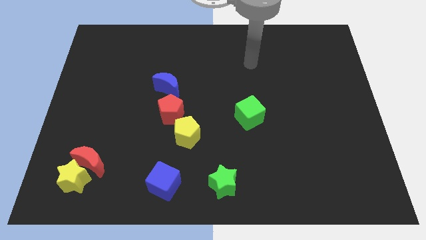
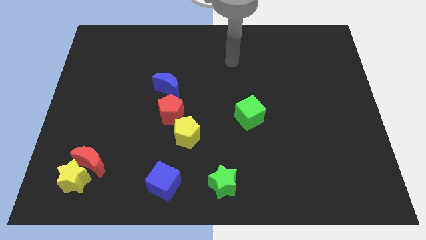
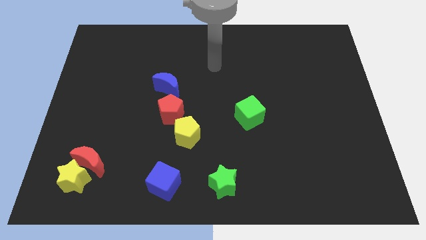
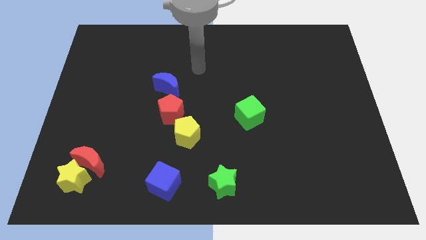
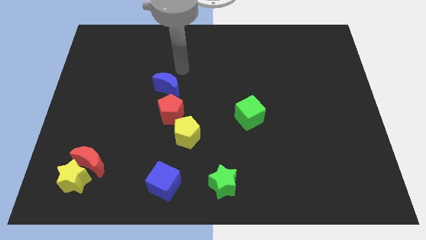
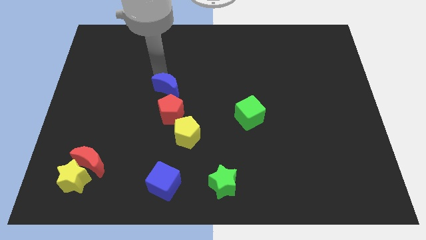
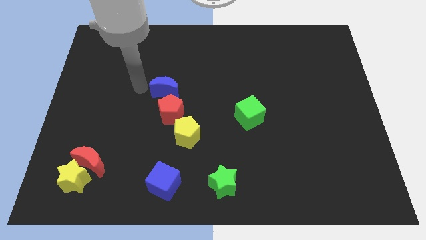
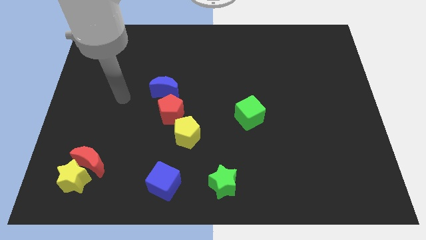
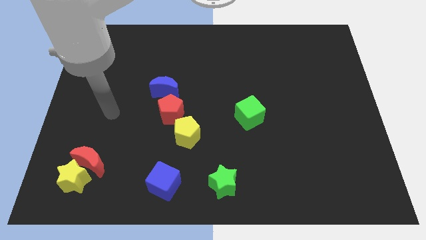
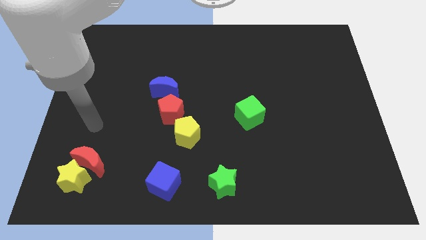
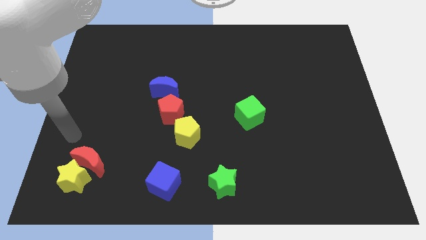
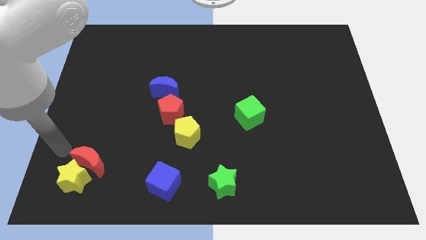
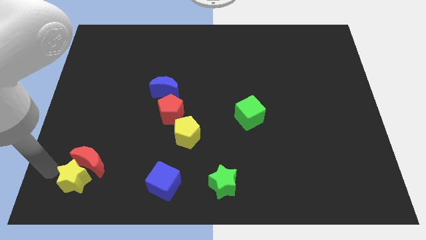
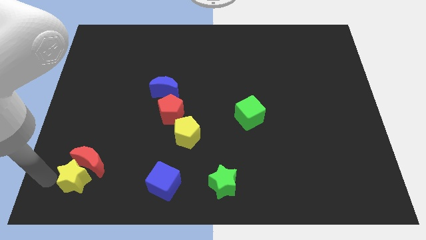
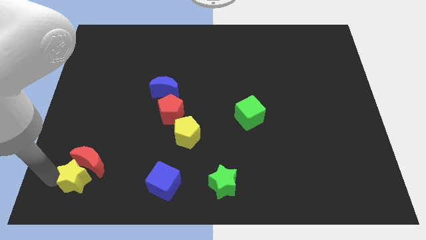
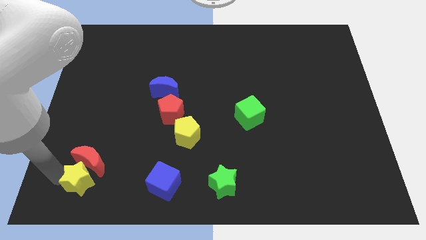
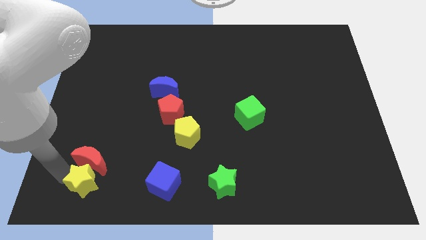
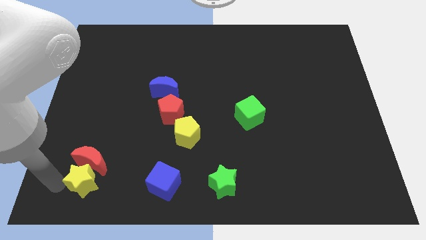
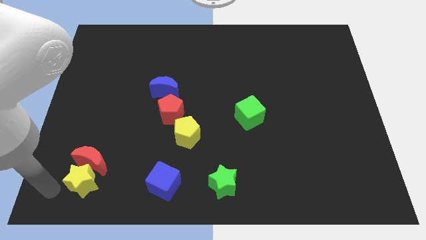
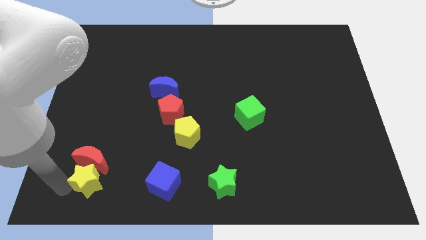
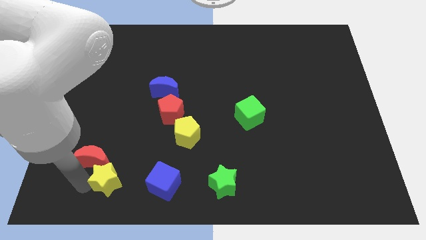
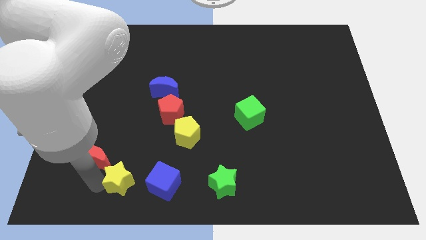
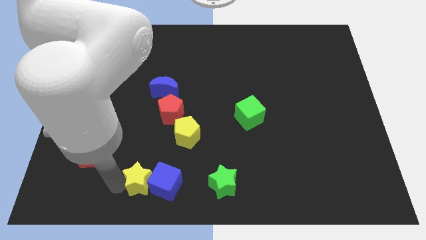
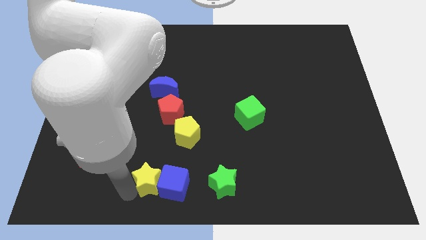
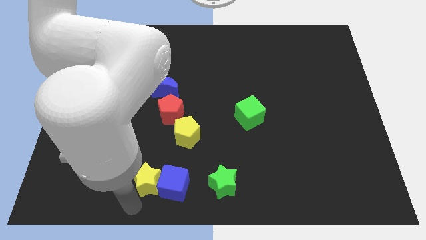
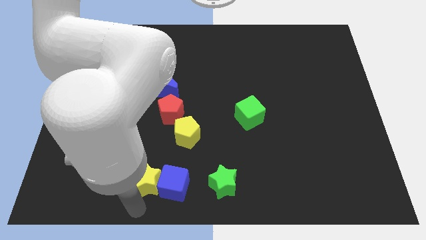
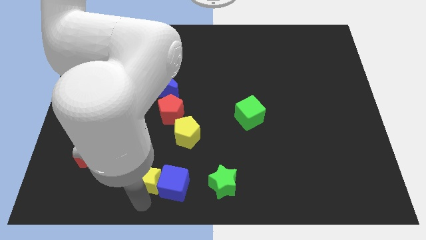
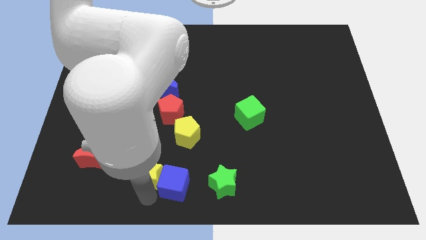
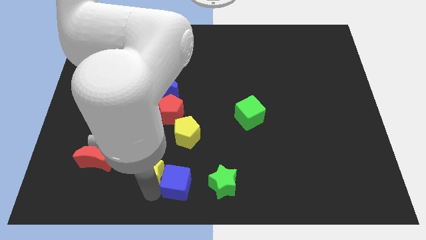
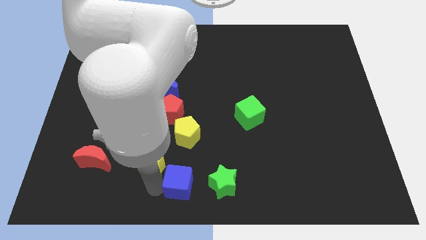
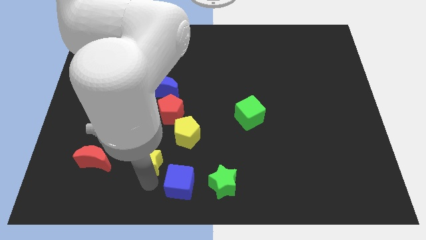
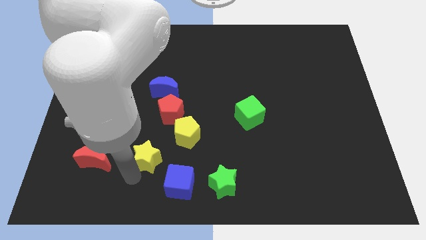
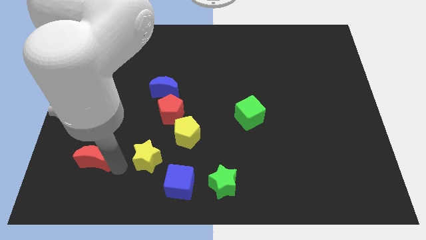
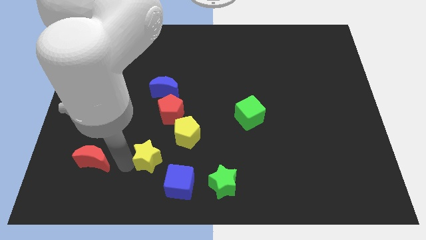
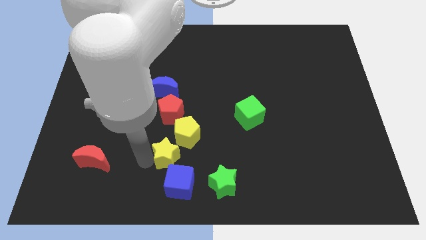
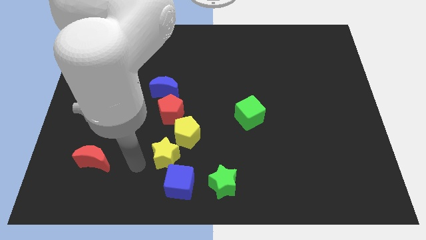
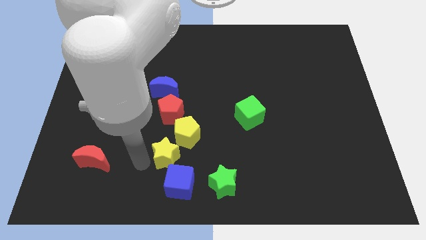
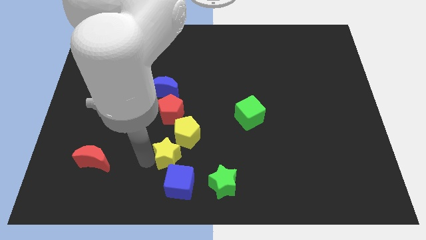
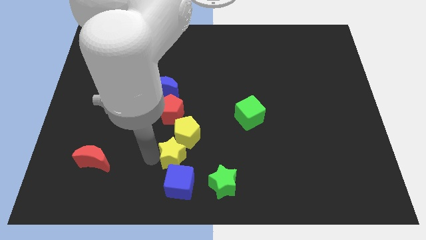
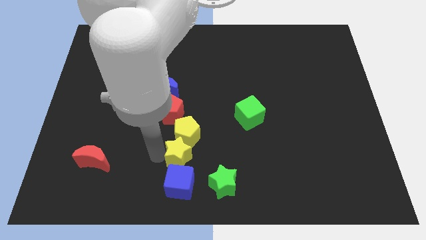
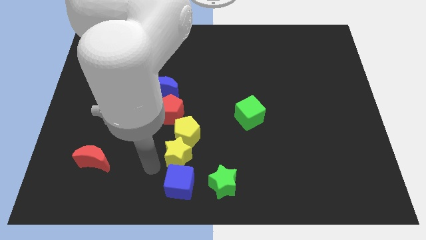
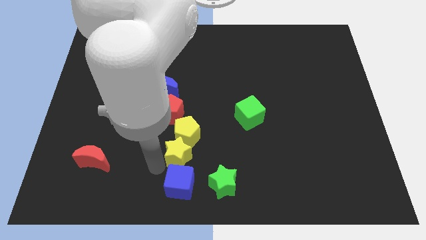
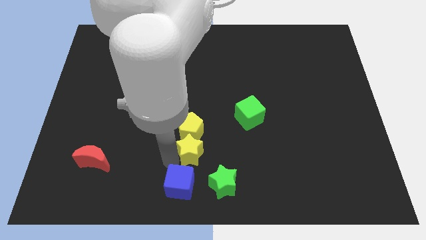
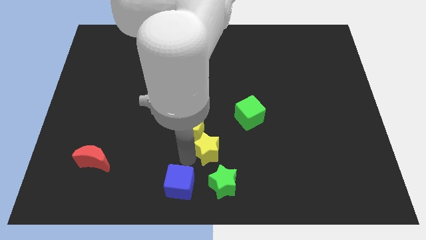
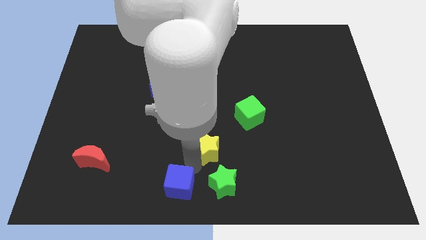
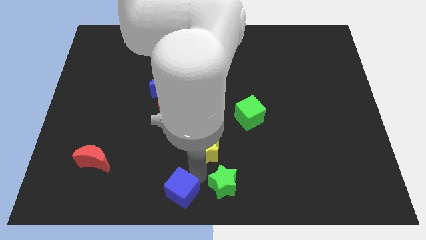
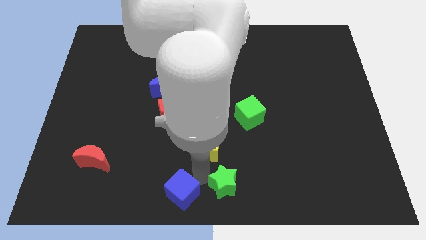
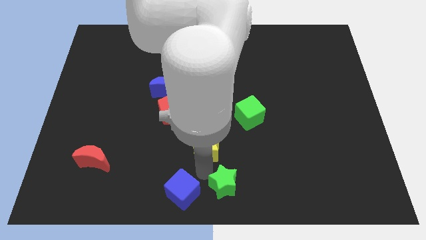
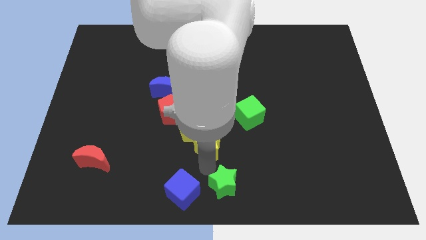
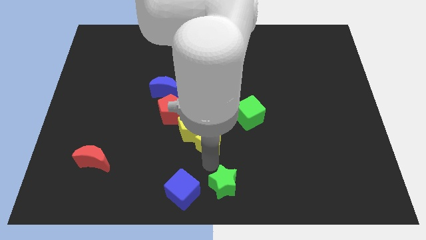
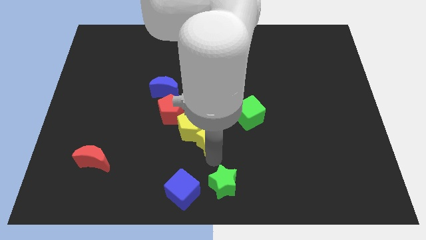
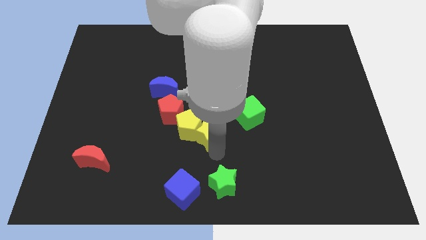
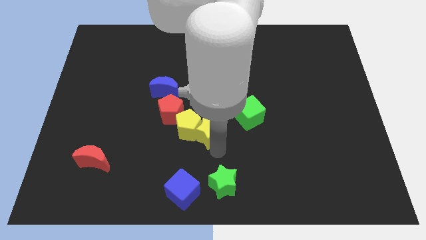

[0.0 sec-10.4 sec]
move the yellow star up and to the right

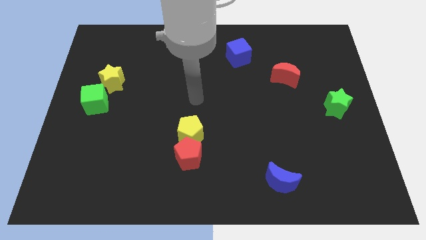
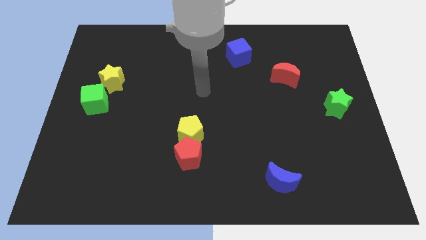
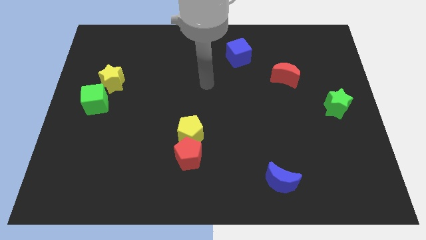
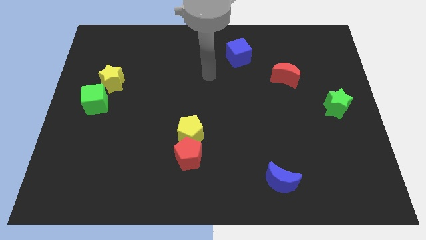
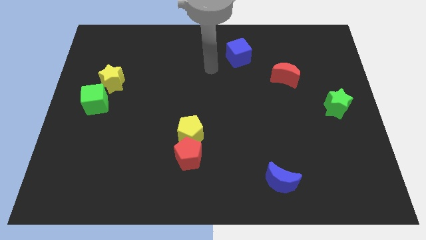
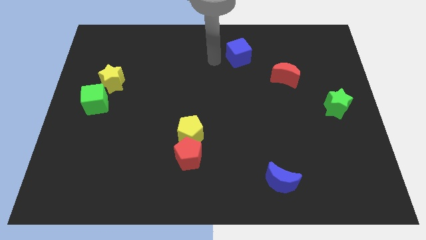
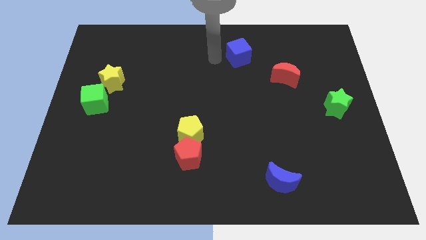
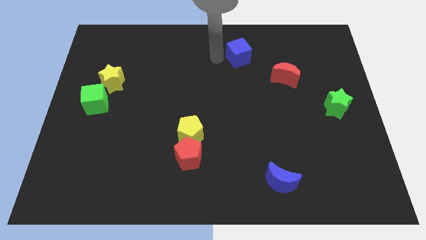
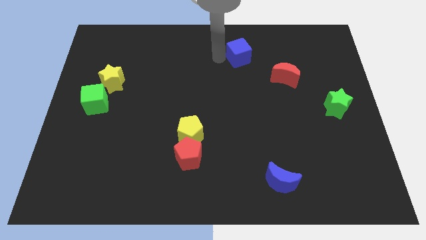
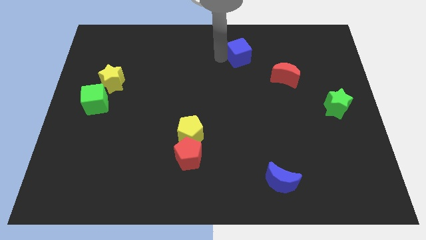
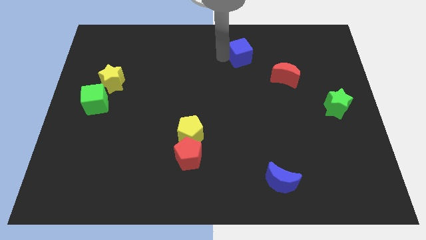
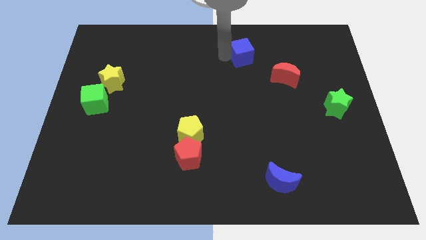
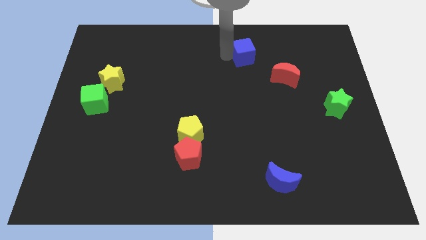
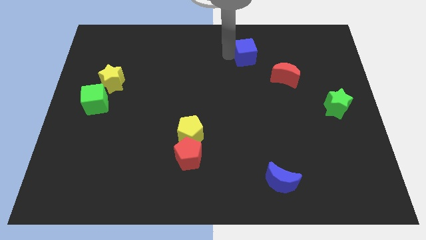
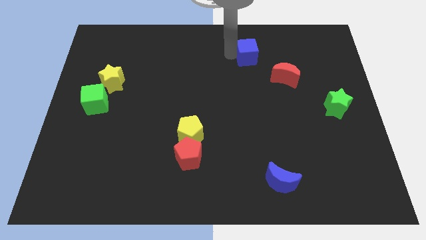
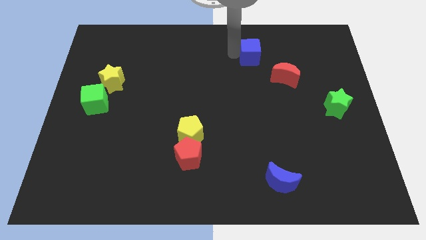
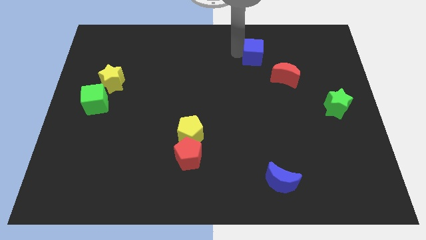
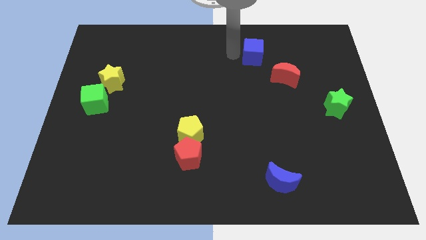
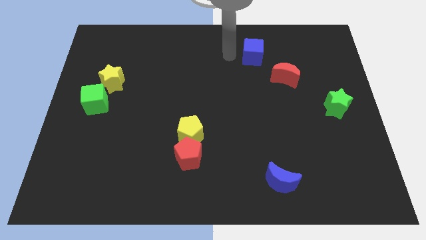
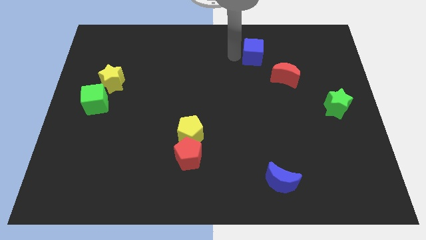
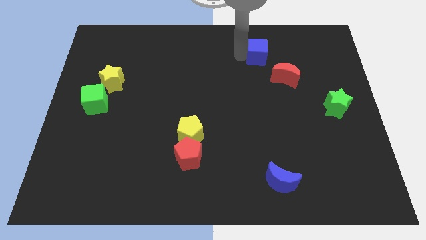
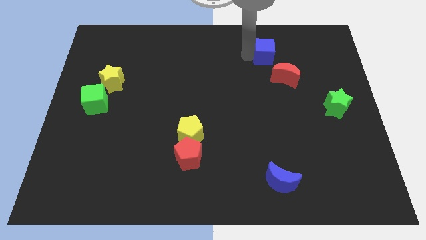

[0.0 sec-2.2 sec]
move the blue cube to the right slightly

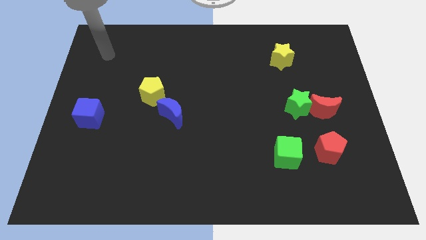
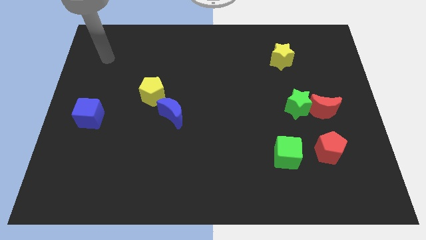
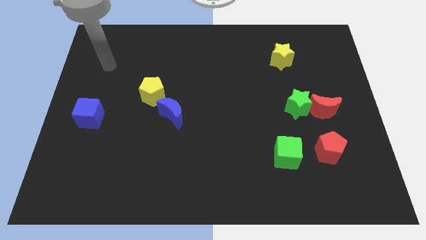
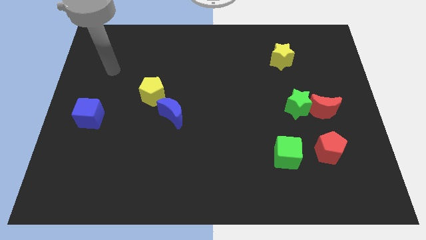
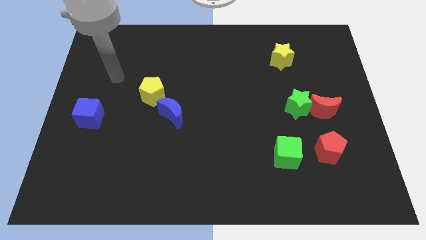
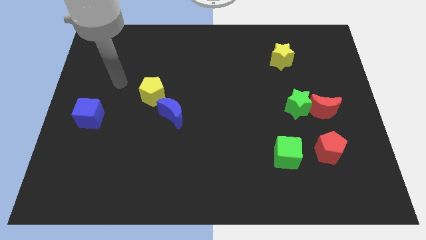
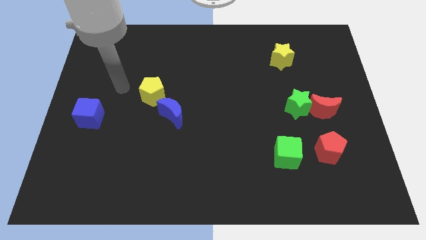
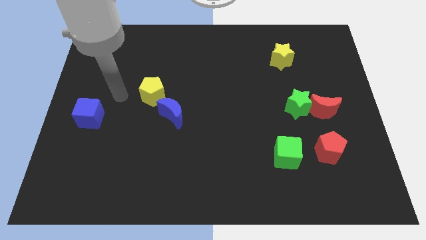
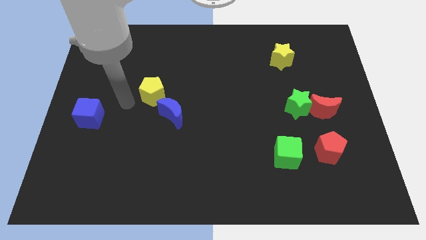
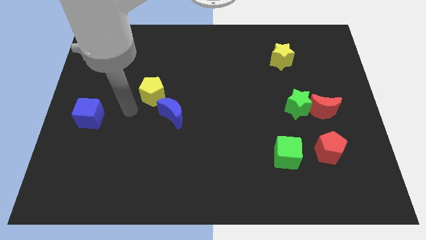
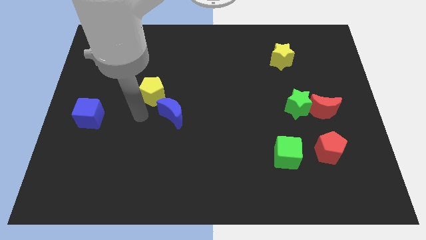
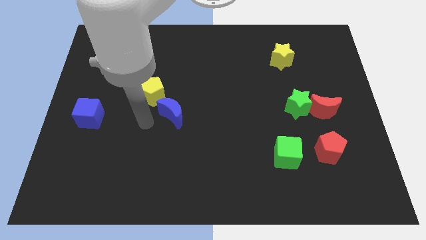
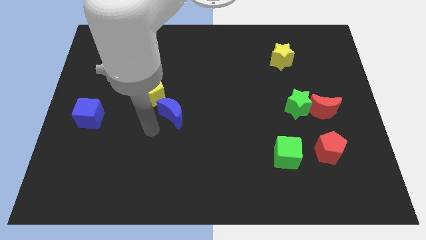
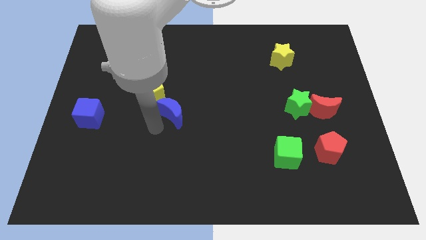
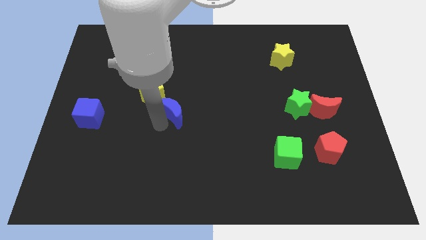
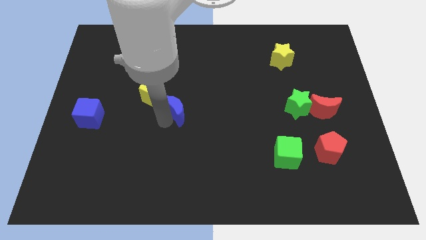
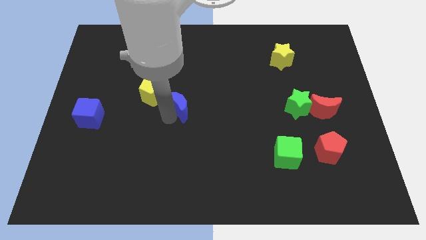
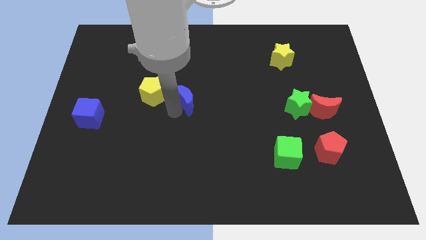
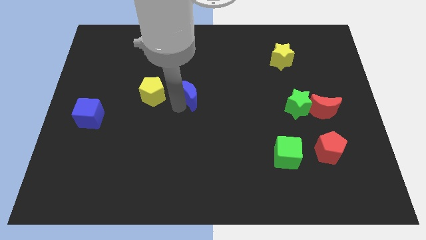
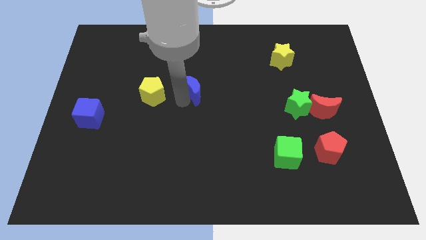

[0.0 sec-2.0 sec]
push the blue moon upwards and then to the right a little bit
